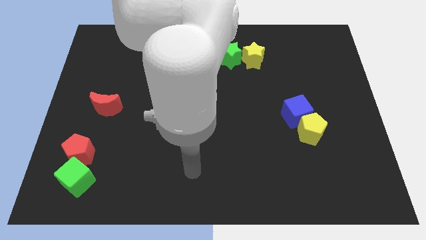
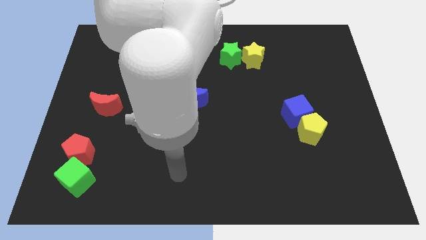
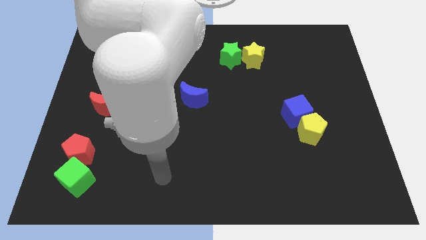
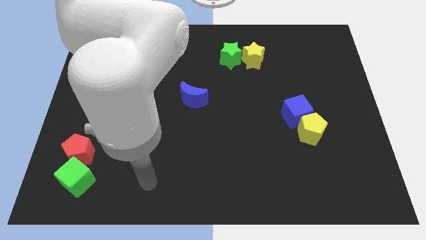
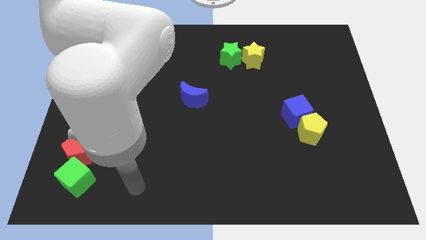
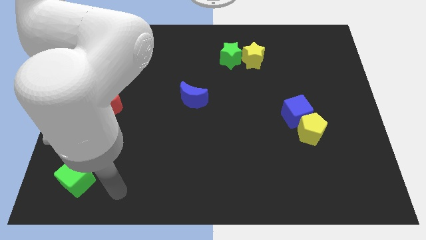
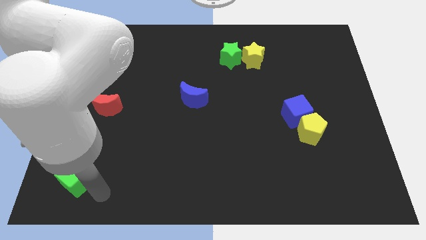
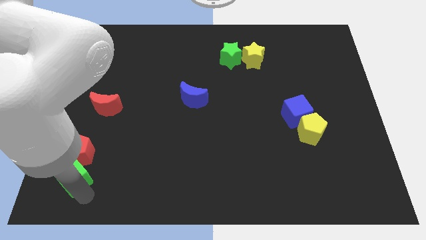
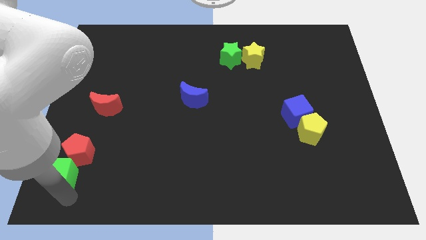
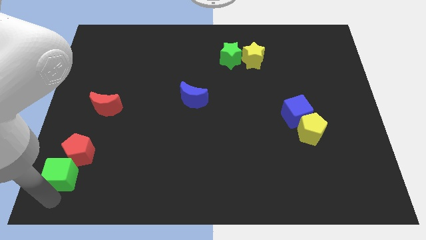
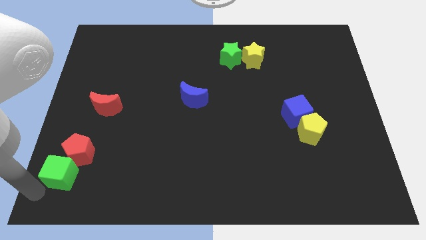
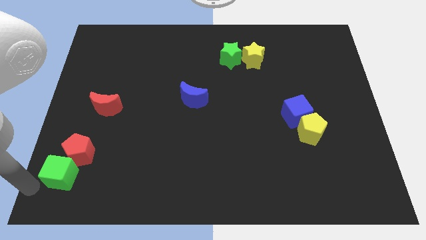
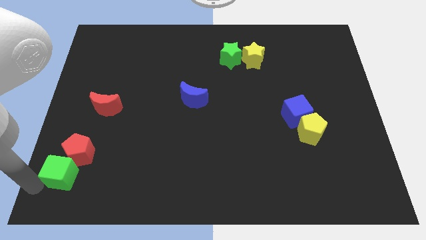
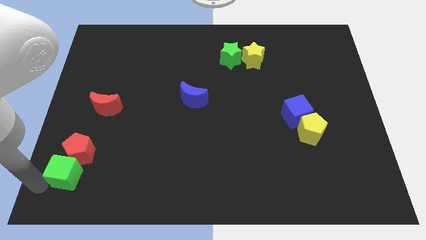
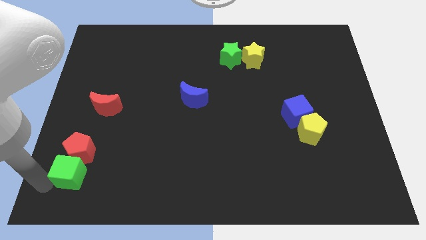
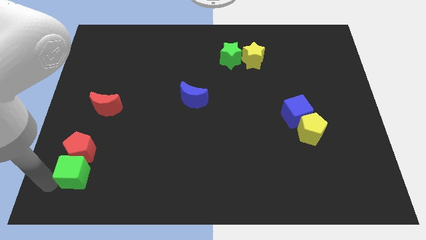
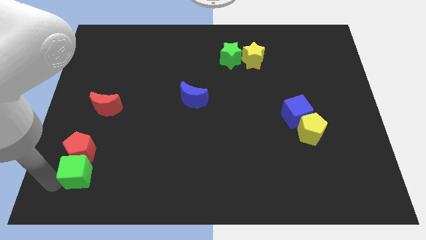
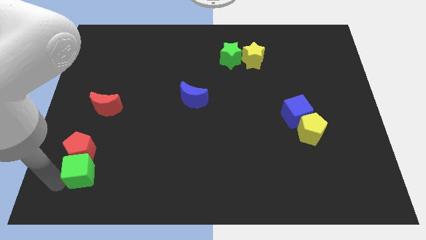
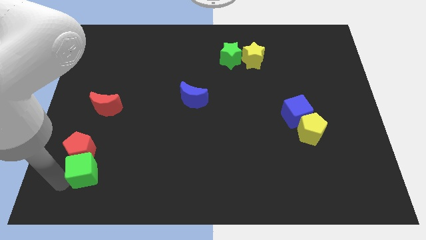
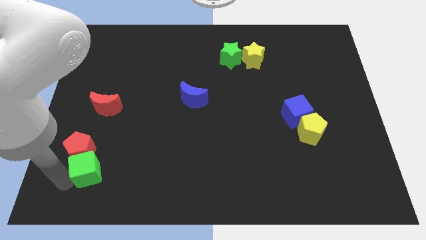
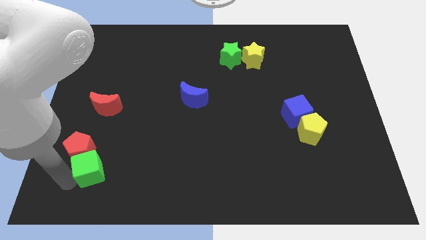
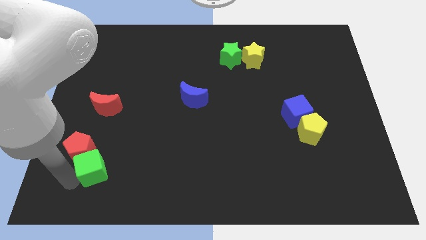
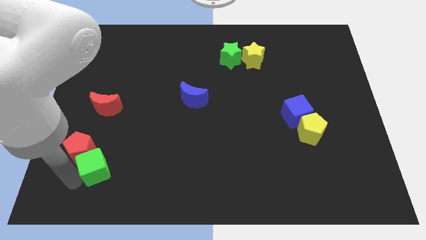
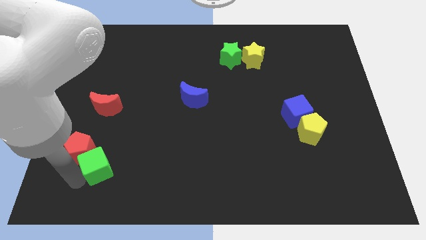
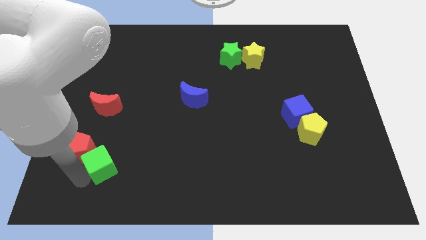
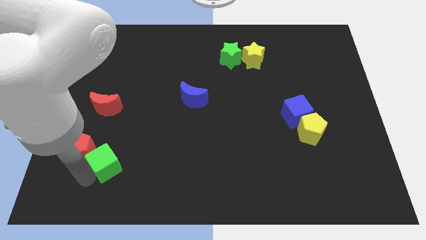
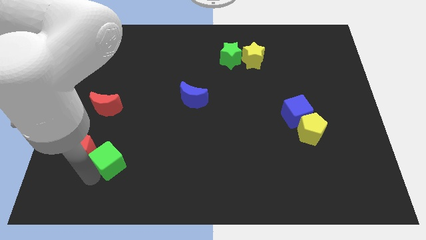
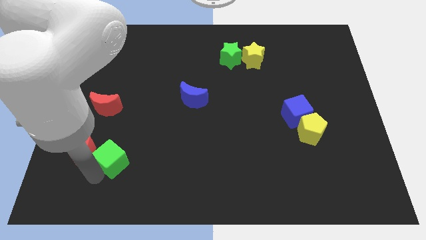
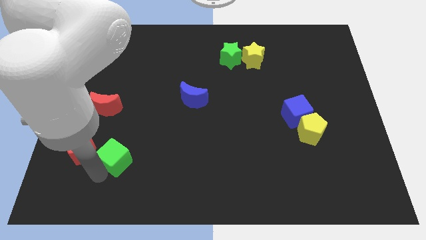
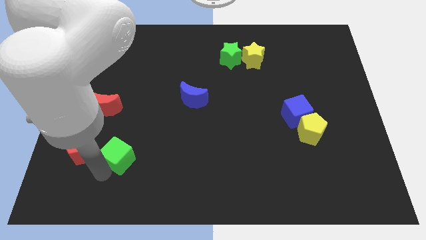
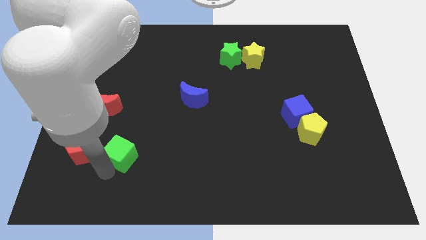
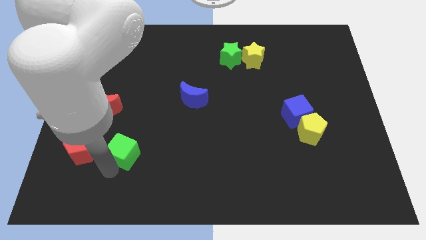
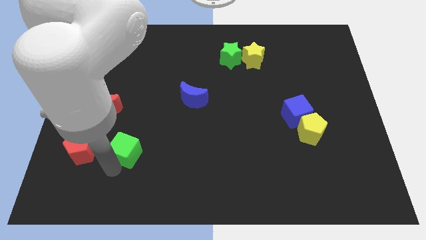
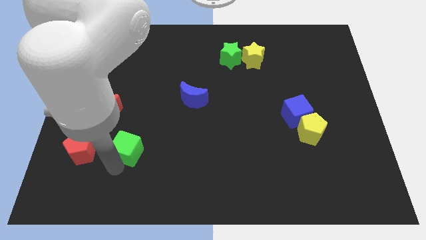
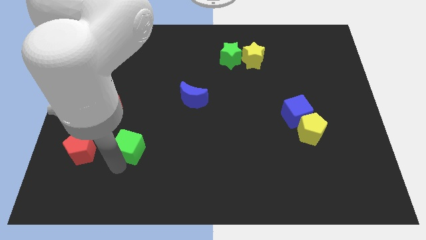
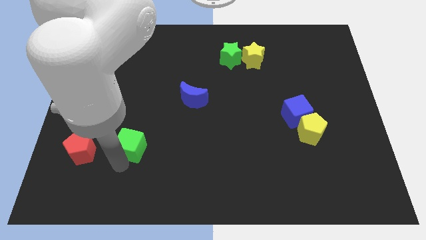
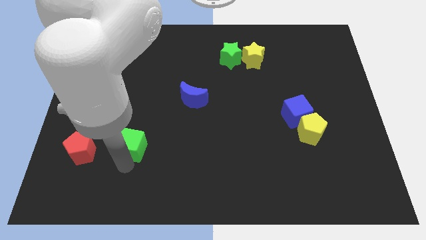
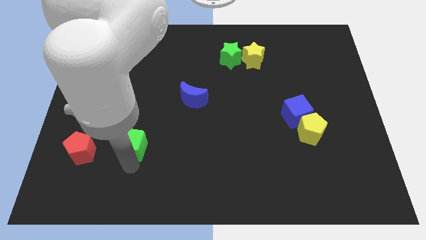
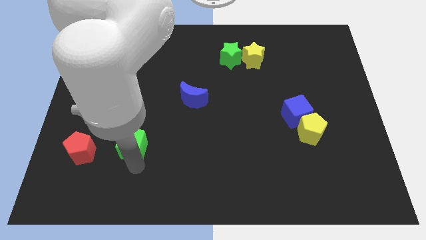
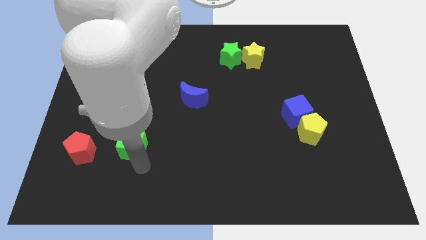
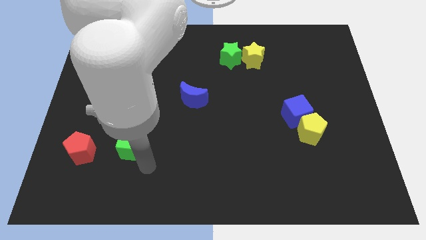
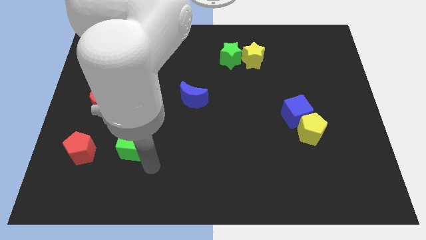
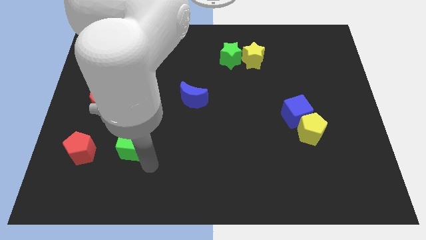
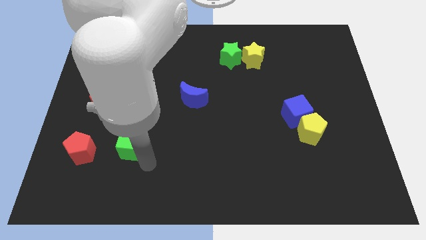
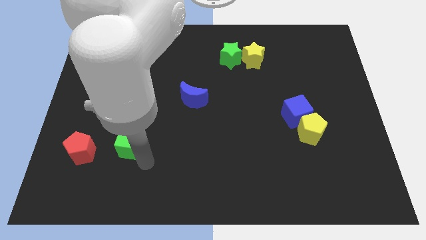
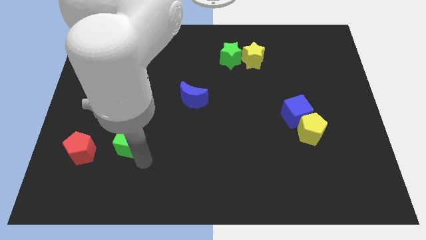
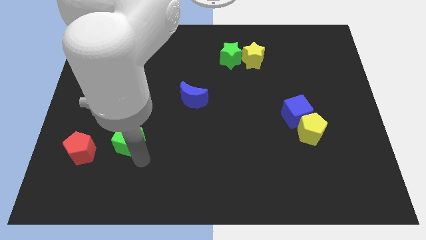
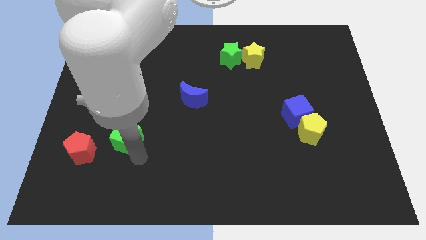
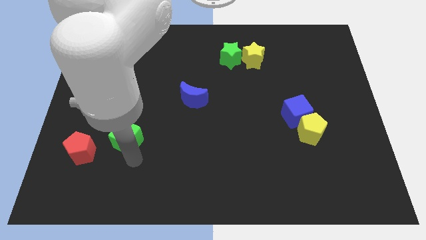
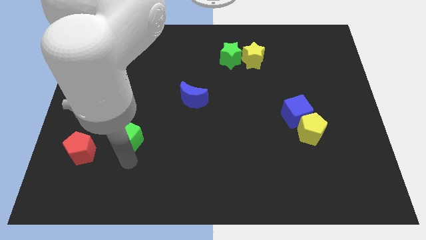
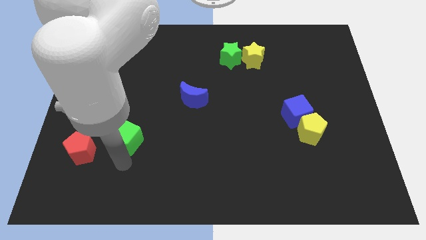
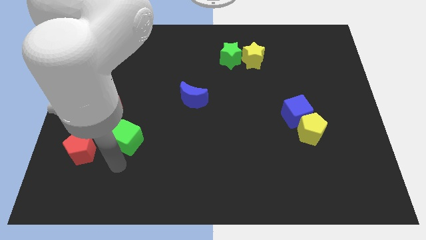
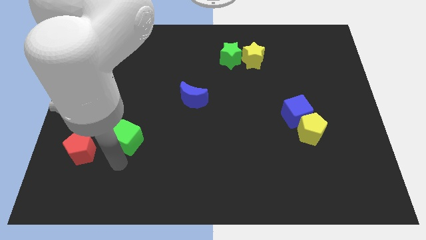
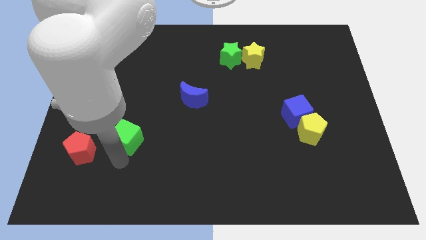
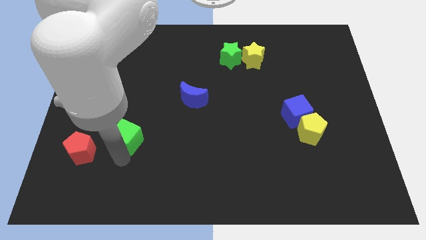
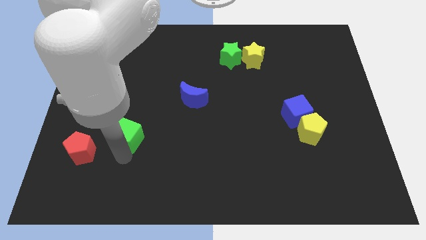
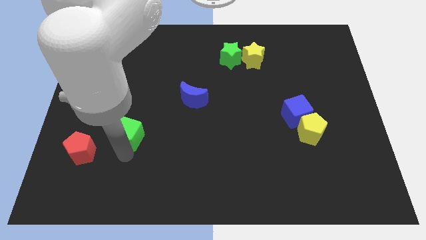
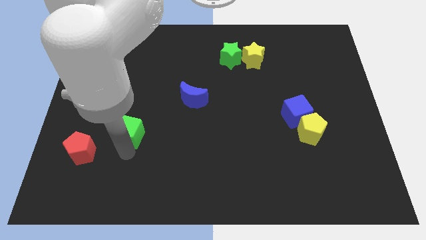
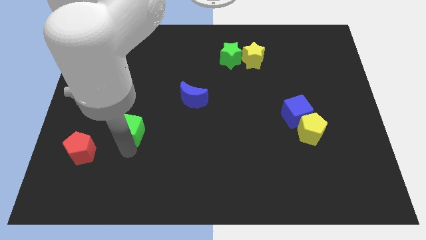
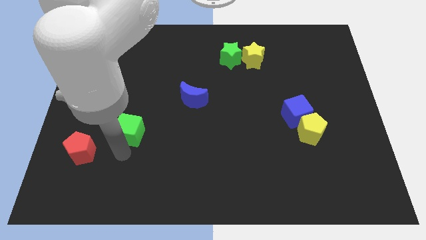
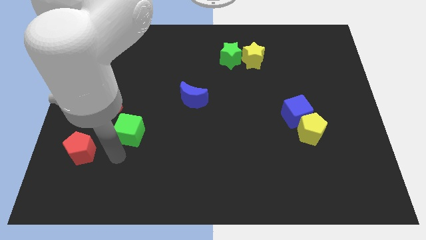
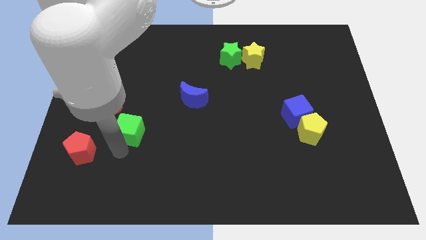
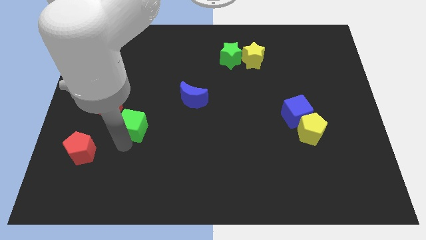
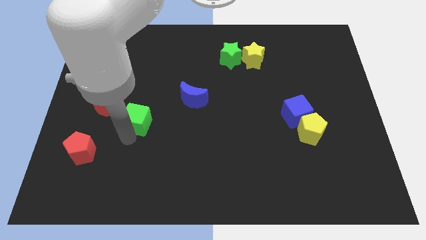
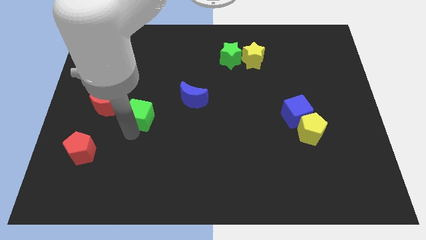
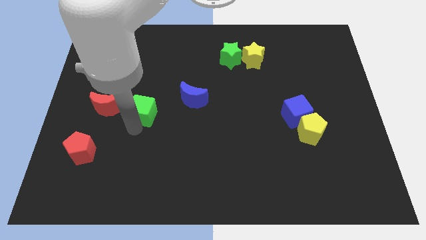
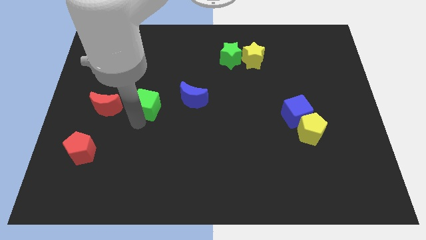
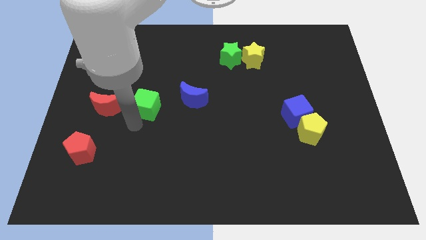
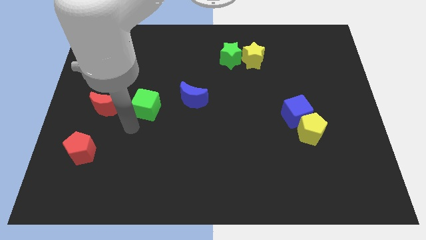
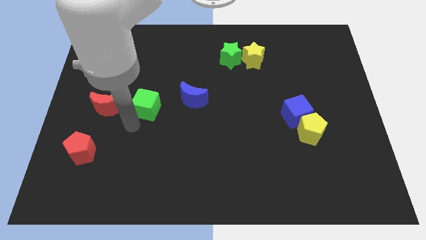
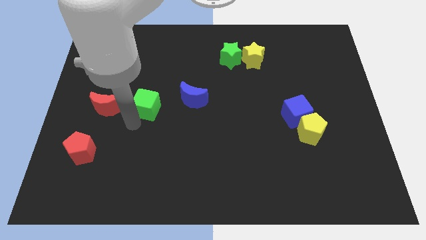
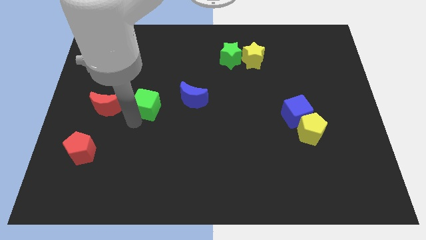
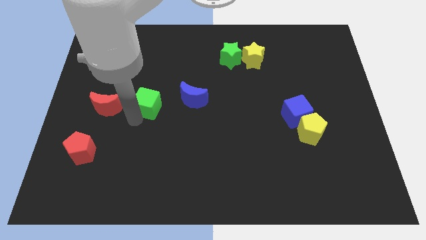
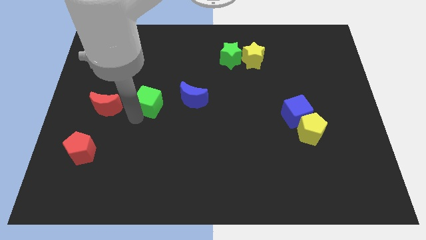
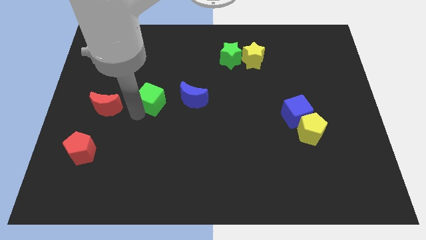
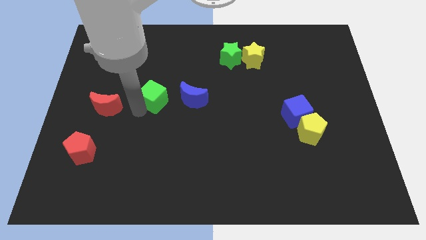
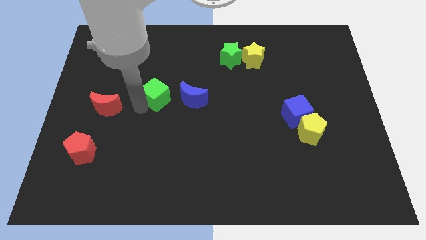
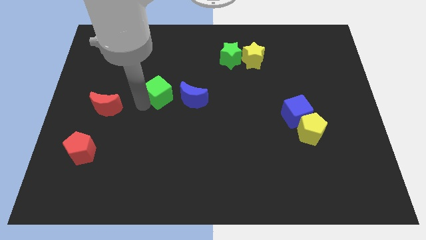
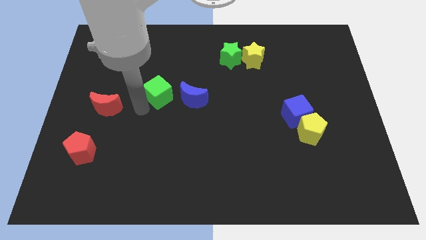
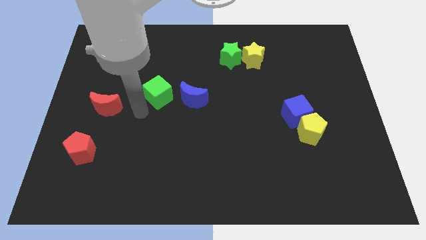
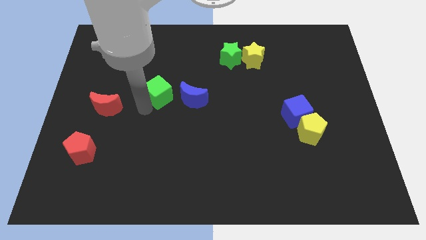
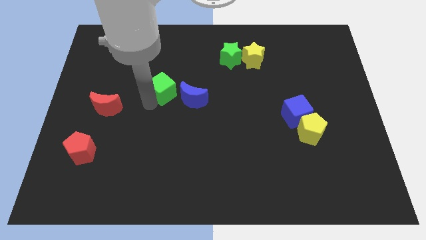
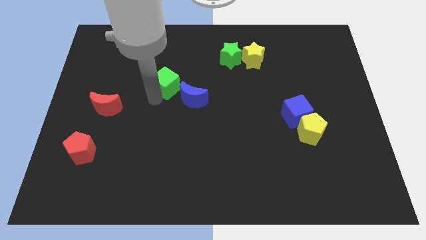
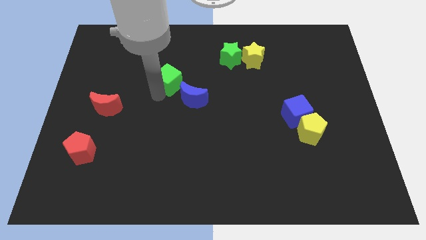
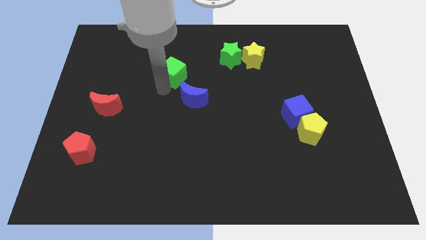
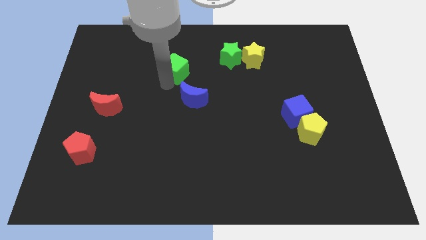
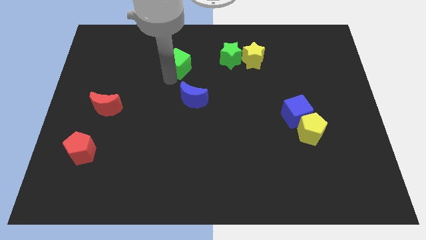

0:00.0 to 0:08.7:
put the green cube to the left side of the green star
